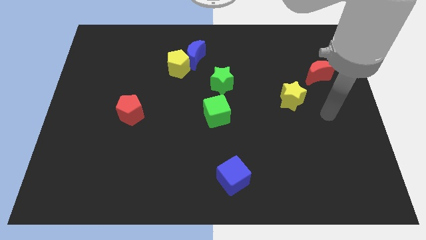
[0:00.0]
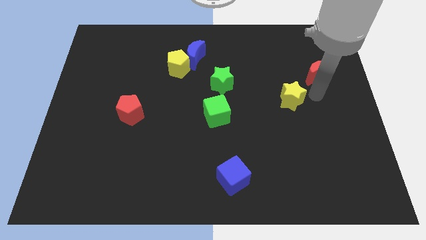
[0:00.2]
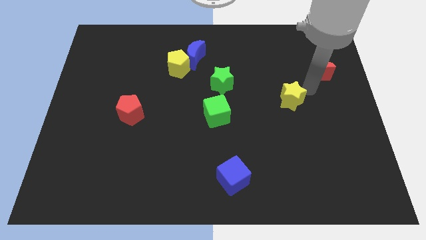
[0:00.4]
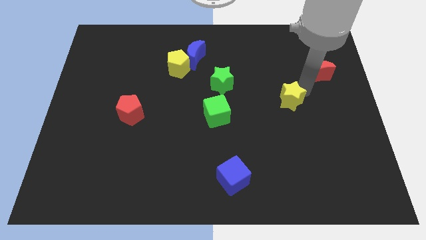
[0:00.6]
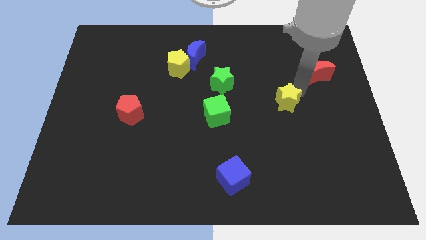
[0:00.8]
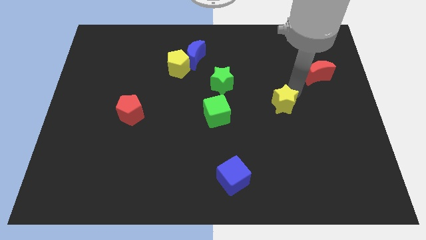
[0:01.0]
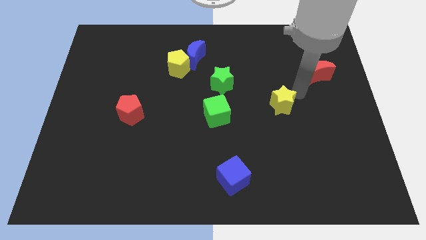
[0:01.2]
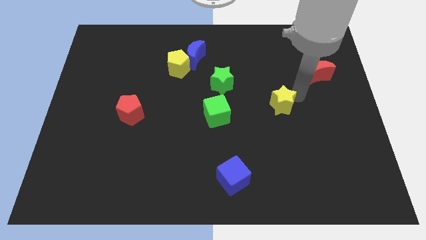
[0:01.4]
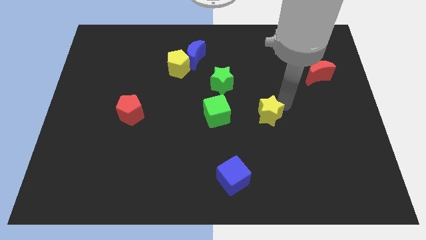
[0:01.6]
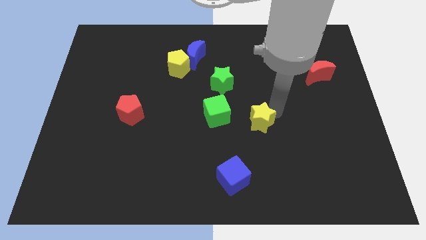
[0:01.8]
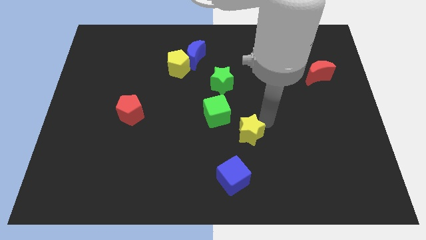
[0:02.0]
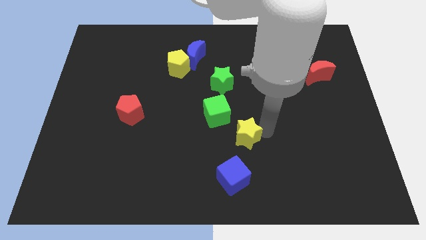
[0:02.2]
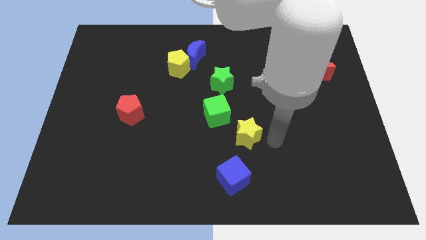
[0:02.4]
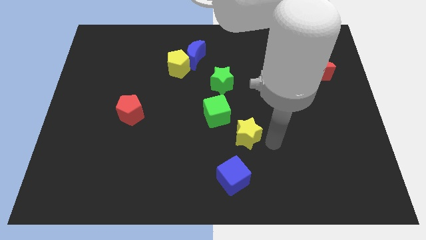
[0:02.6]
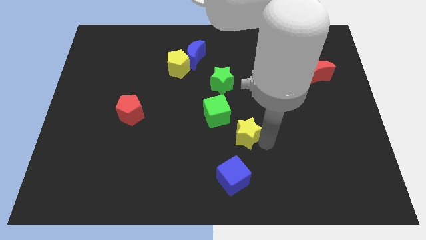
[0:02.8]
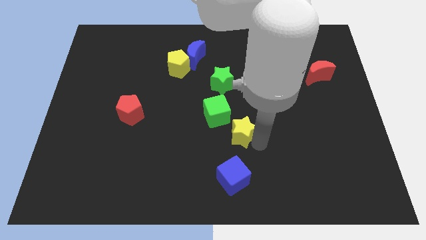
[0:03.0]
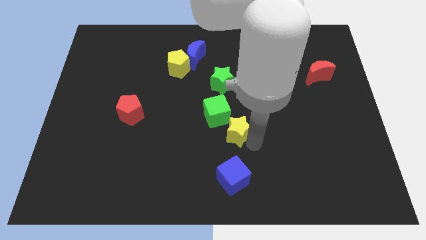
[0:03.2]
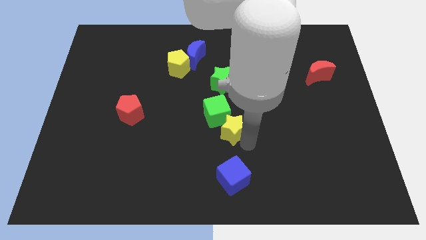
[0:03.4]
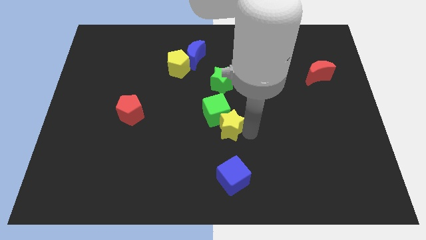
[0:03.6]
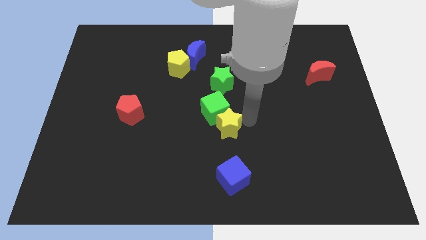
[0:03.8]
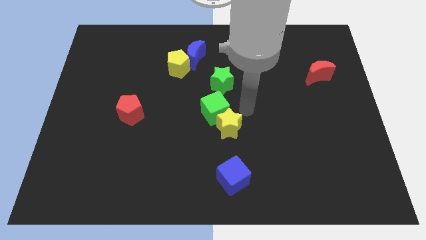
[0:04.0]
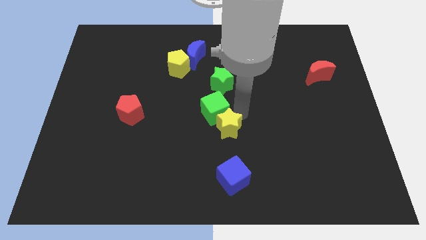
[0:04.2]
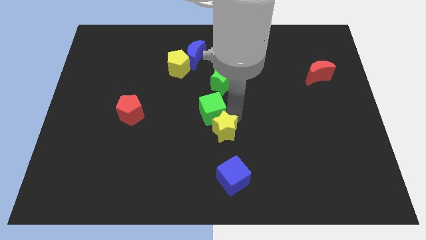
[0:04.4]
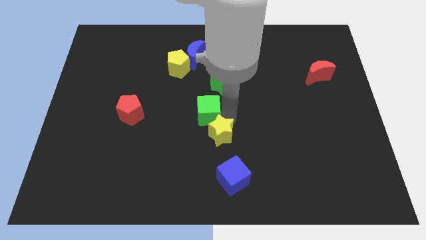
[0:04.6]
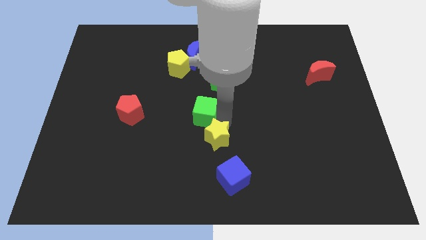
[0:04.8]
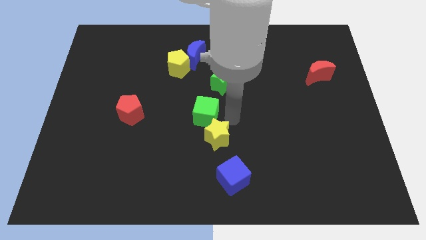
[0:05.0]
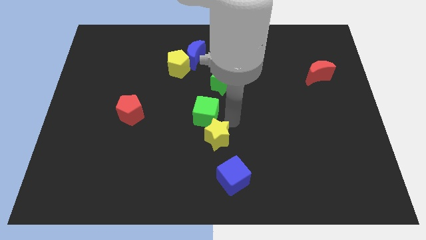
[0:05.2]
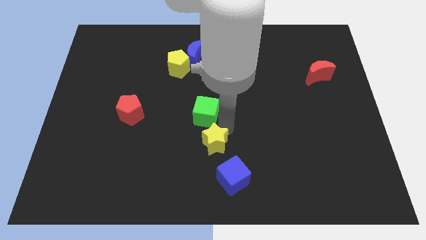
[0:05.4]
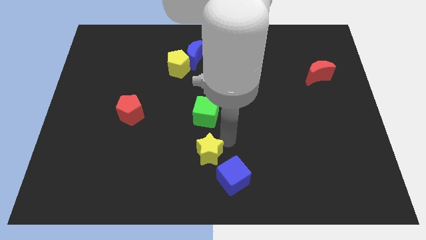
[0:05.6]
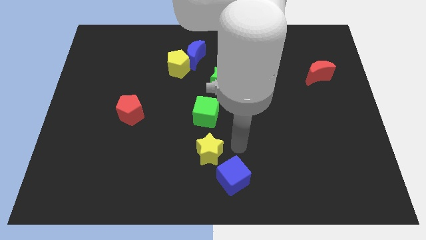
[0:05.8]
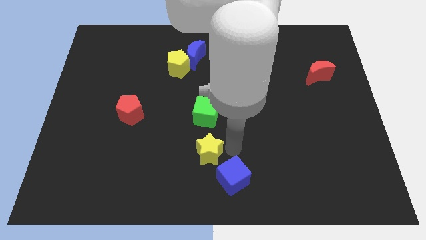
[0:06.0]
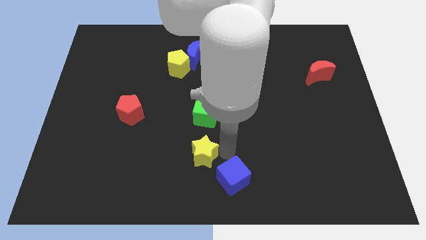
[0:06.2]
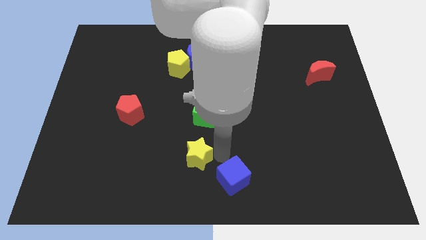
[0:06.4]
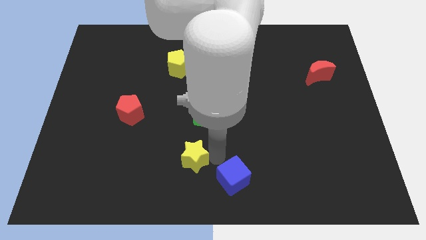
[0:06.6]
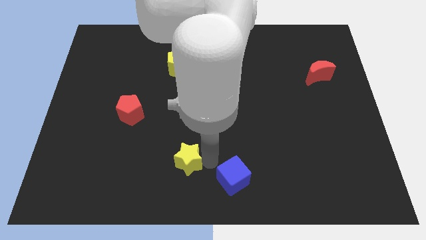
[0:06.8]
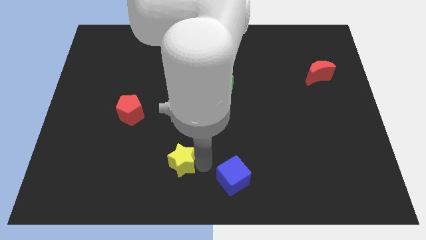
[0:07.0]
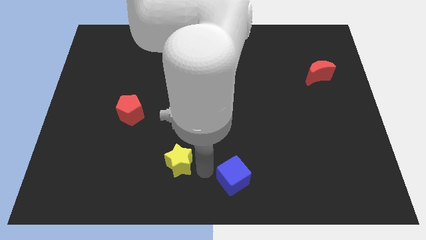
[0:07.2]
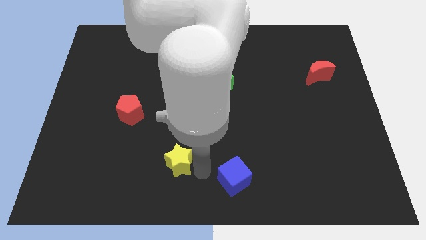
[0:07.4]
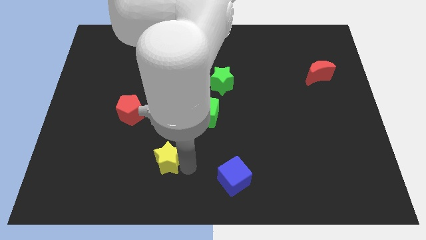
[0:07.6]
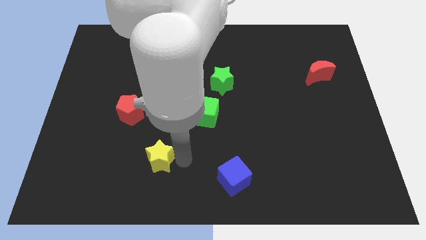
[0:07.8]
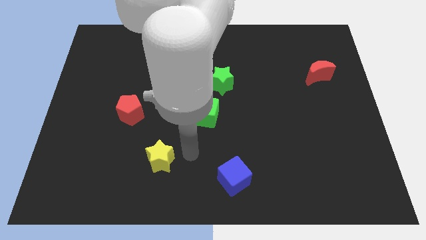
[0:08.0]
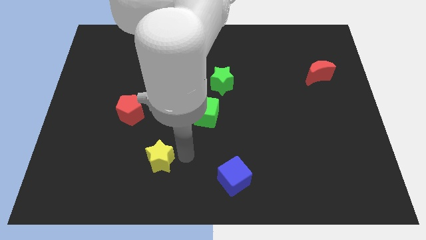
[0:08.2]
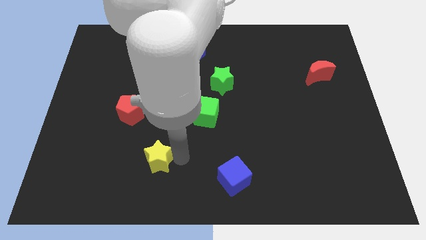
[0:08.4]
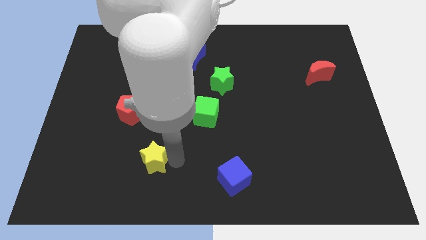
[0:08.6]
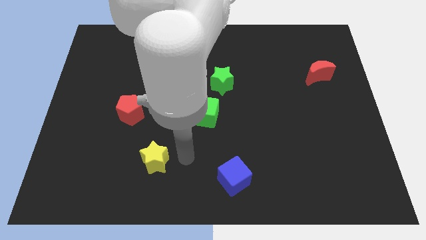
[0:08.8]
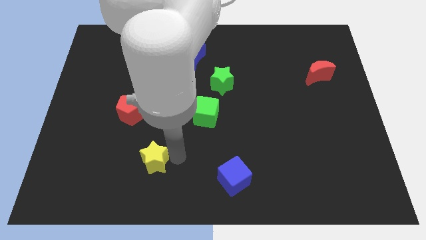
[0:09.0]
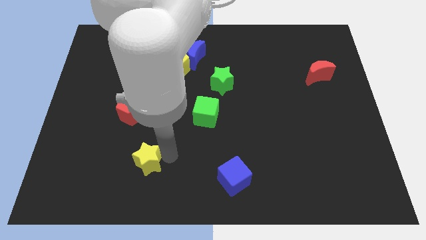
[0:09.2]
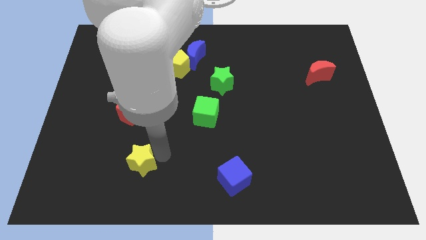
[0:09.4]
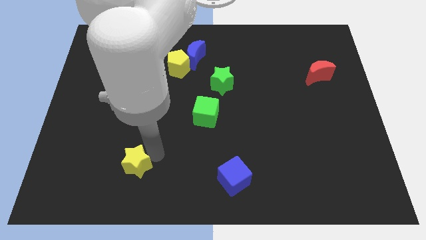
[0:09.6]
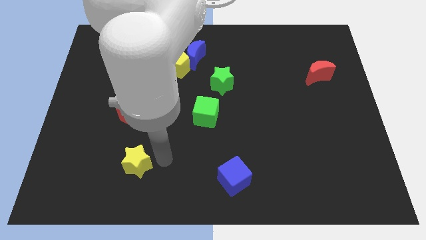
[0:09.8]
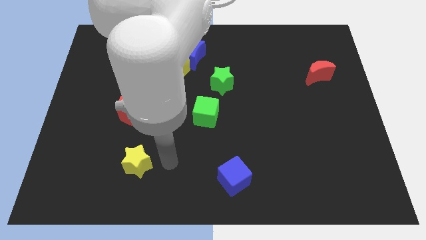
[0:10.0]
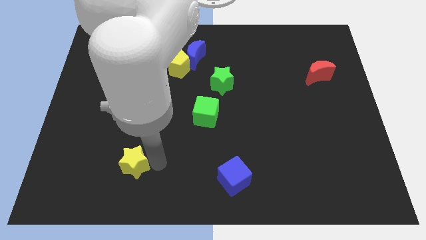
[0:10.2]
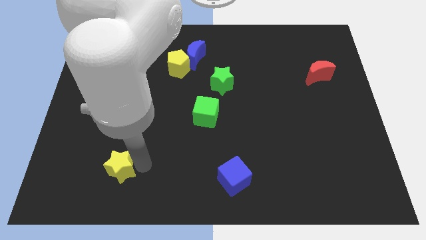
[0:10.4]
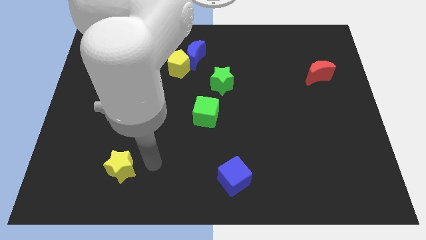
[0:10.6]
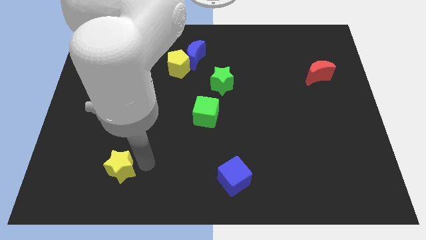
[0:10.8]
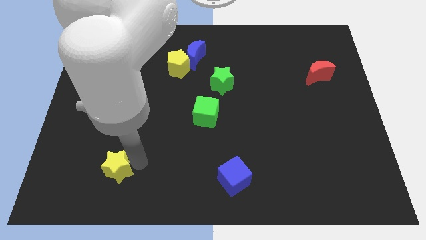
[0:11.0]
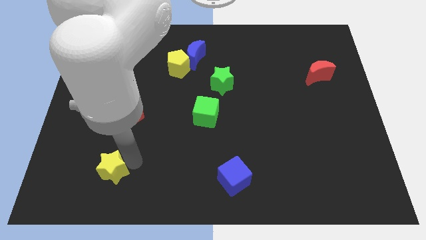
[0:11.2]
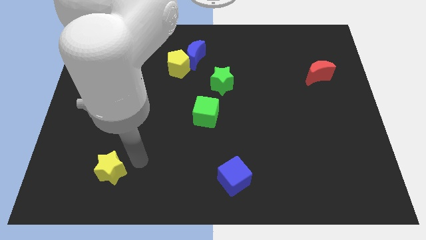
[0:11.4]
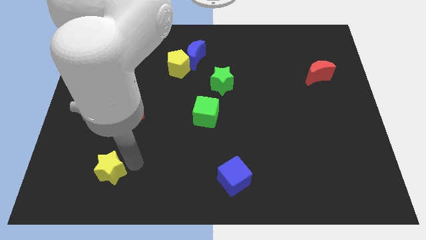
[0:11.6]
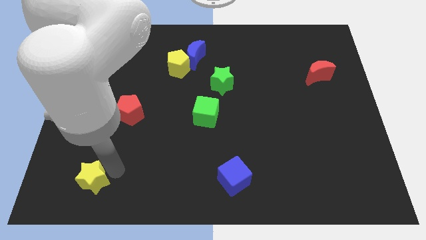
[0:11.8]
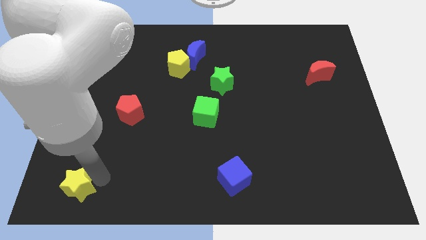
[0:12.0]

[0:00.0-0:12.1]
move the yellow star to the bottom left of the board
